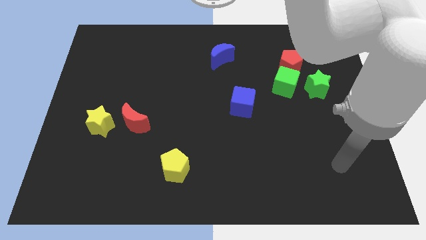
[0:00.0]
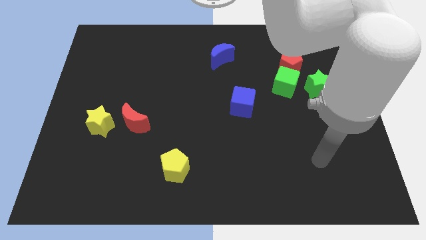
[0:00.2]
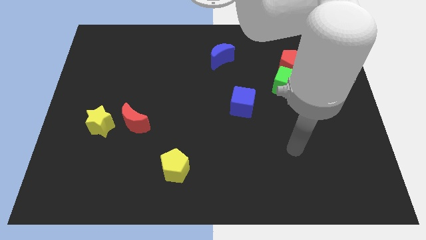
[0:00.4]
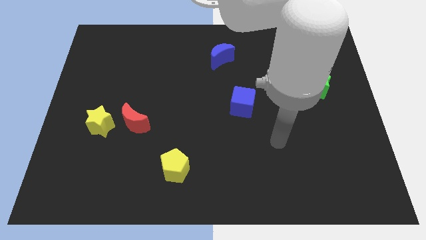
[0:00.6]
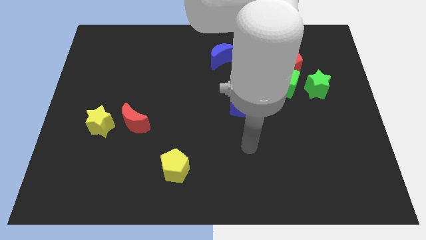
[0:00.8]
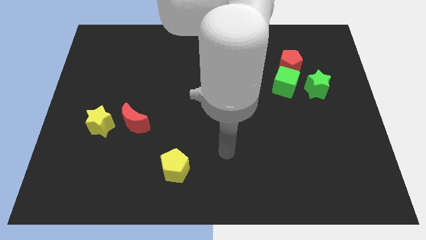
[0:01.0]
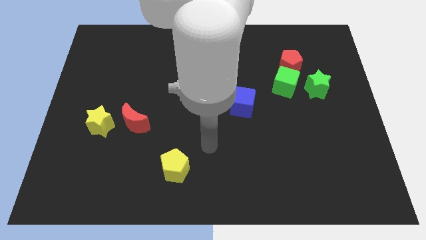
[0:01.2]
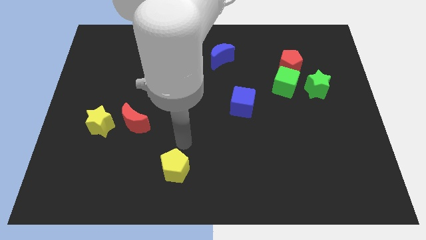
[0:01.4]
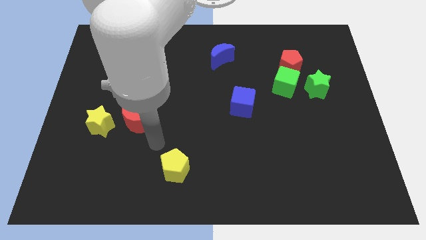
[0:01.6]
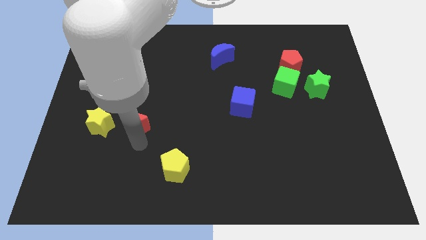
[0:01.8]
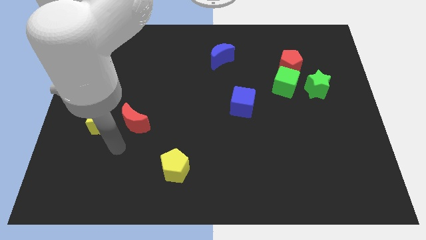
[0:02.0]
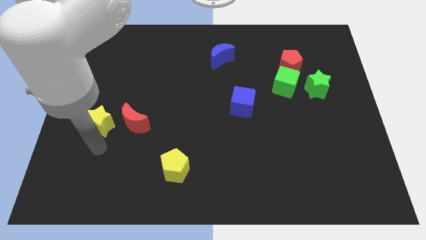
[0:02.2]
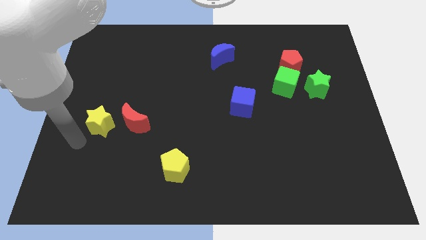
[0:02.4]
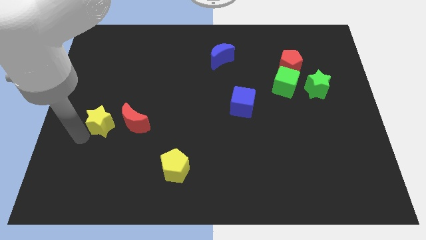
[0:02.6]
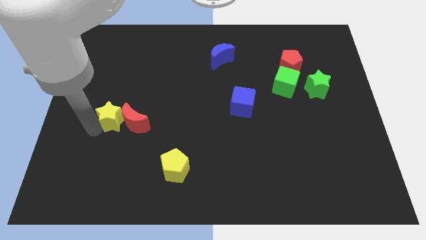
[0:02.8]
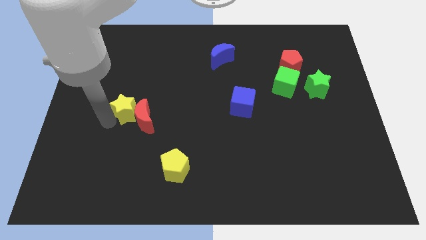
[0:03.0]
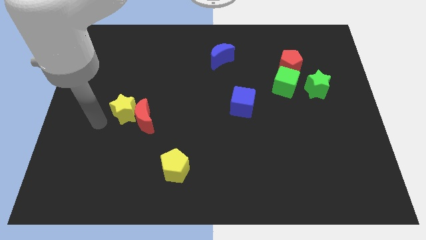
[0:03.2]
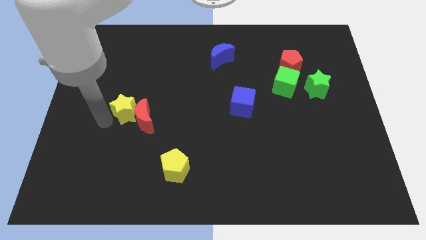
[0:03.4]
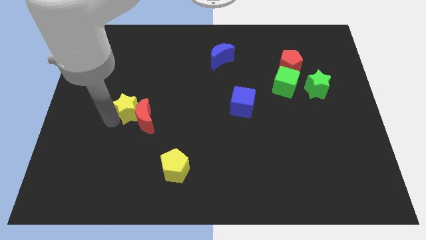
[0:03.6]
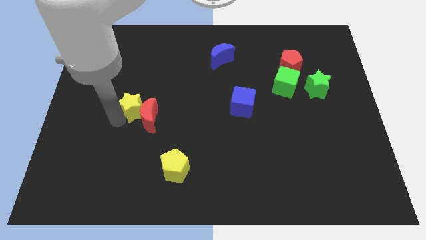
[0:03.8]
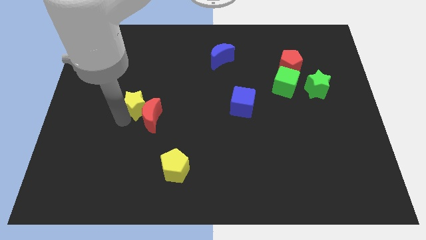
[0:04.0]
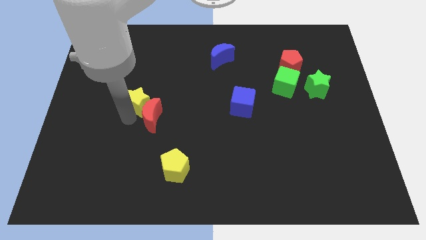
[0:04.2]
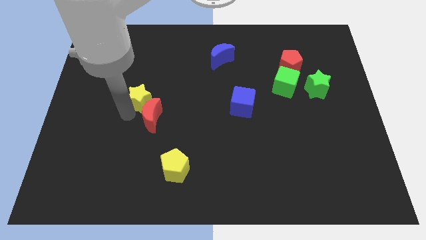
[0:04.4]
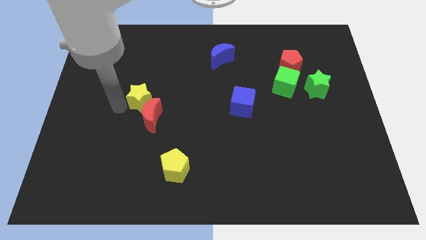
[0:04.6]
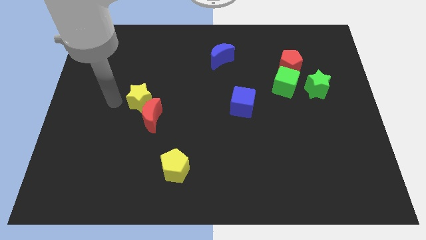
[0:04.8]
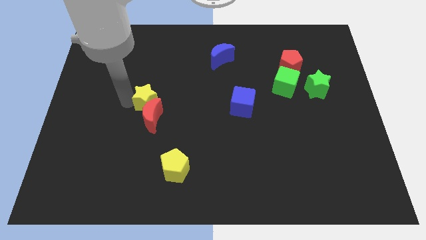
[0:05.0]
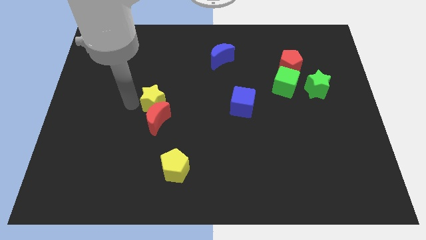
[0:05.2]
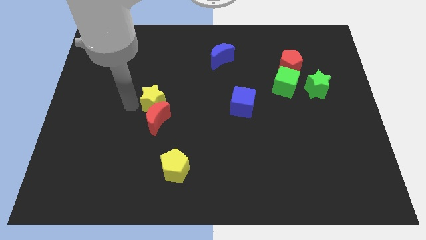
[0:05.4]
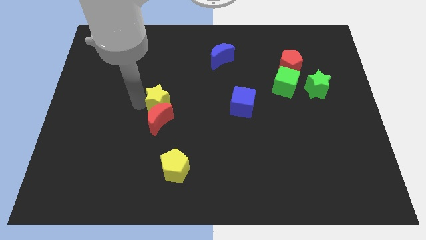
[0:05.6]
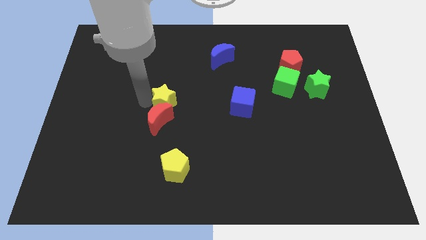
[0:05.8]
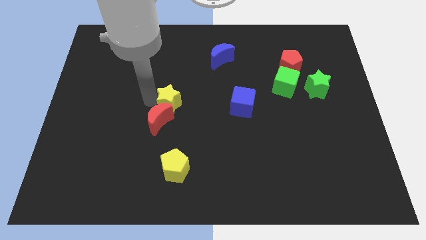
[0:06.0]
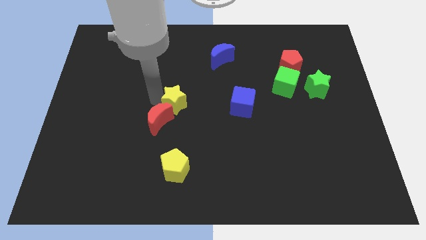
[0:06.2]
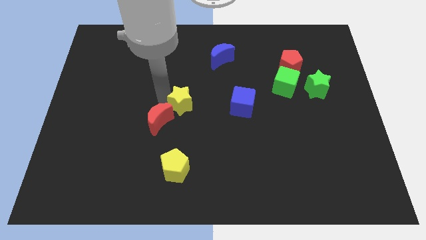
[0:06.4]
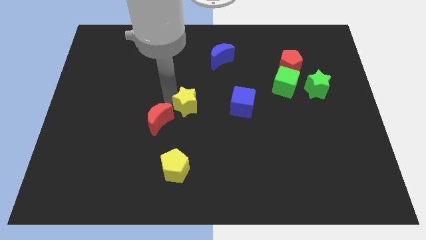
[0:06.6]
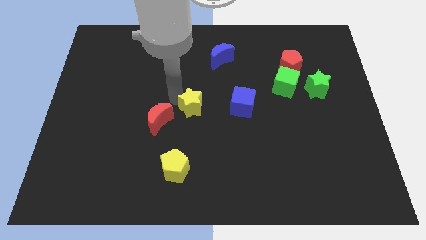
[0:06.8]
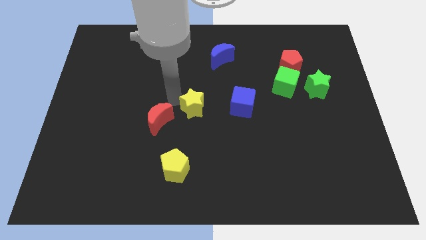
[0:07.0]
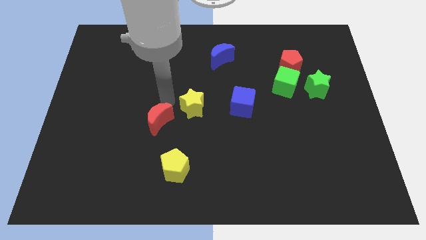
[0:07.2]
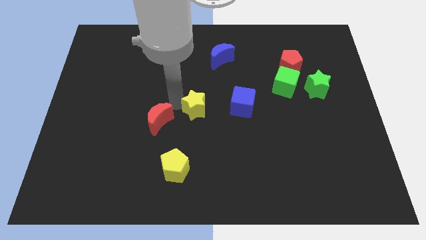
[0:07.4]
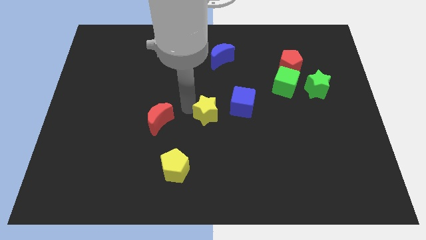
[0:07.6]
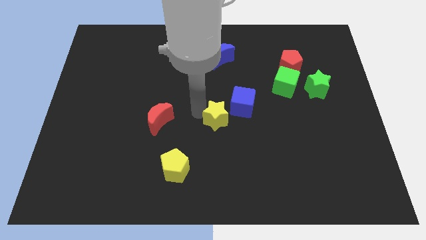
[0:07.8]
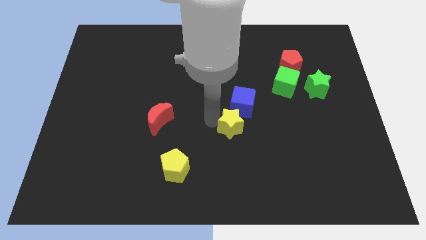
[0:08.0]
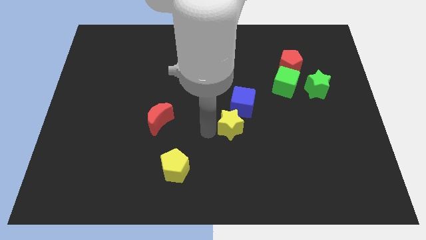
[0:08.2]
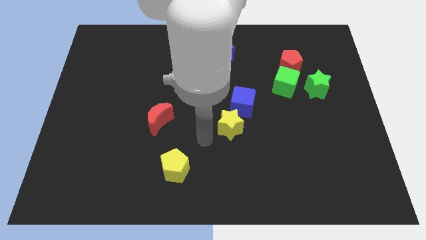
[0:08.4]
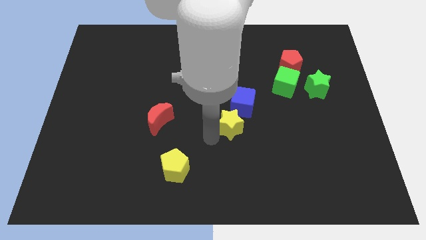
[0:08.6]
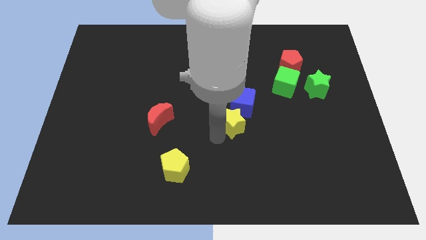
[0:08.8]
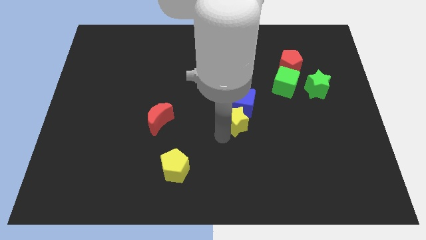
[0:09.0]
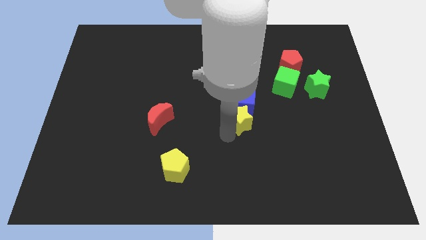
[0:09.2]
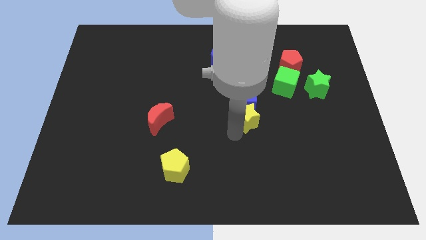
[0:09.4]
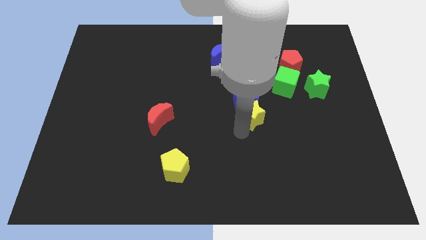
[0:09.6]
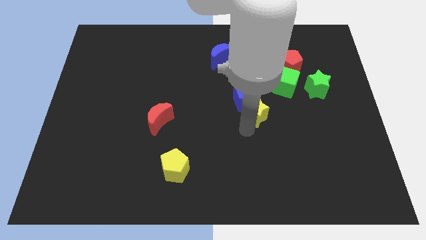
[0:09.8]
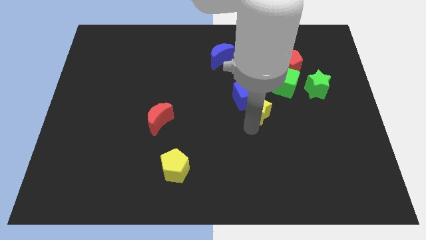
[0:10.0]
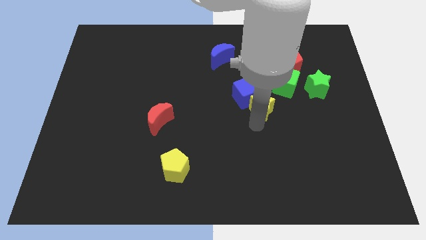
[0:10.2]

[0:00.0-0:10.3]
push the yellow star to the right of the blue cube

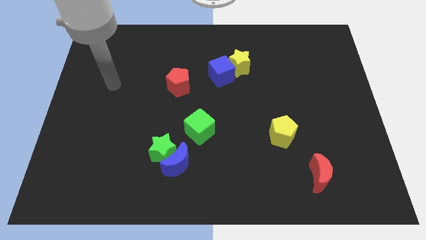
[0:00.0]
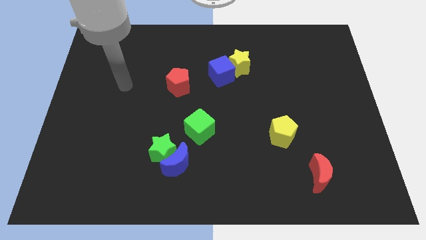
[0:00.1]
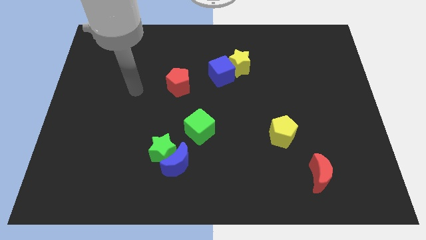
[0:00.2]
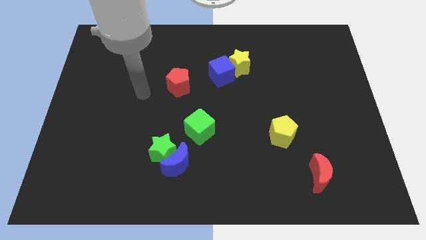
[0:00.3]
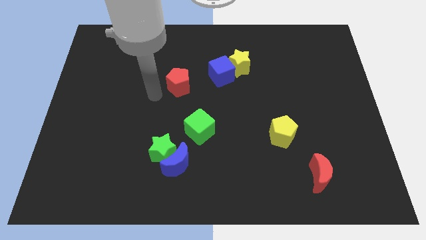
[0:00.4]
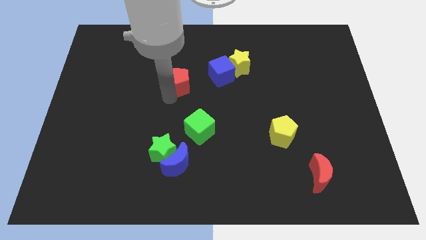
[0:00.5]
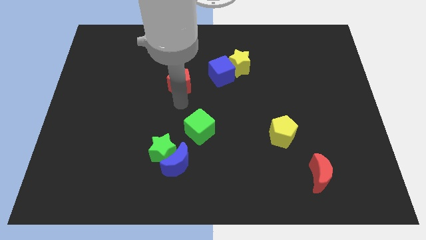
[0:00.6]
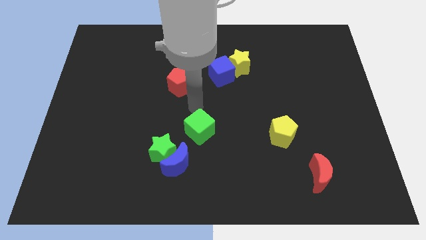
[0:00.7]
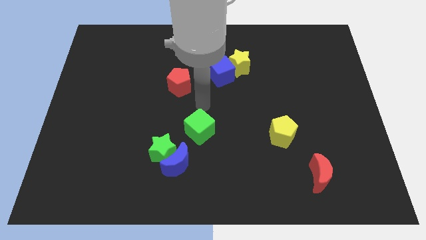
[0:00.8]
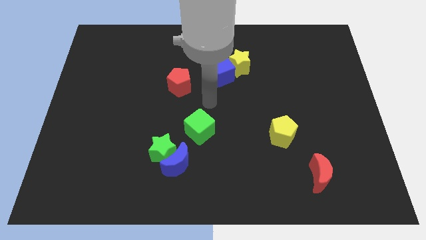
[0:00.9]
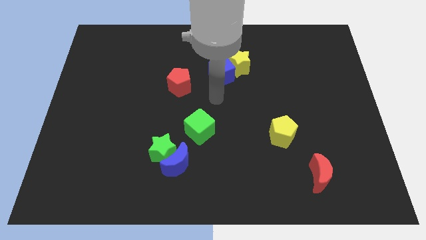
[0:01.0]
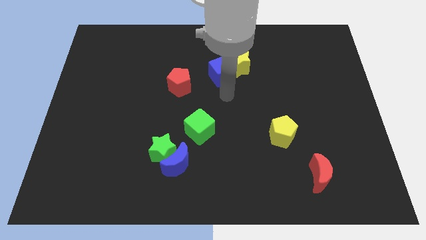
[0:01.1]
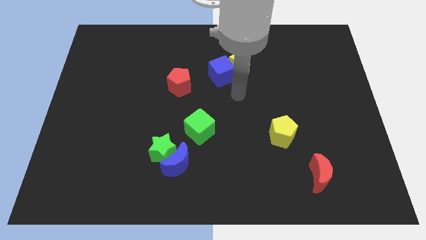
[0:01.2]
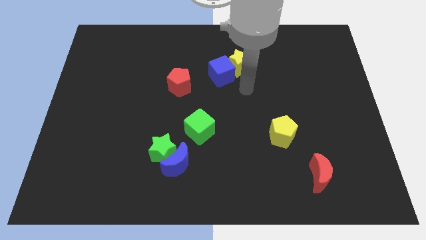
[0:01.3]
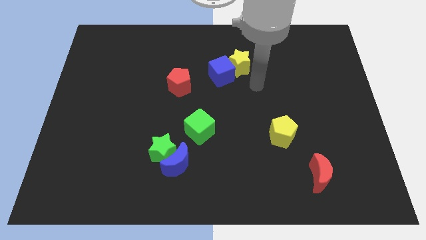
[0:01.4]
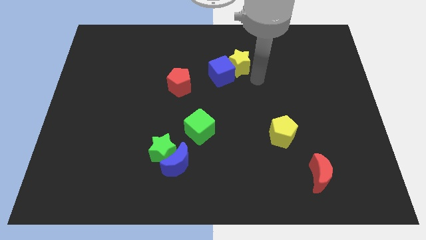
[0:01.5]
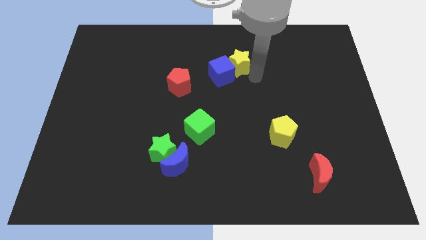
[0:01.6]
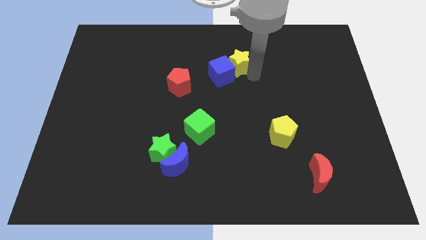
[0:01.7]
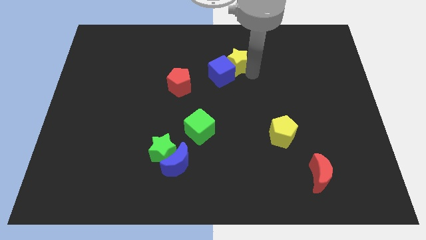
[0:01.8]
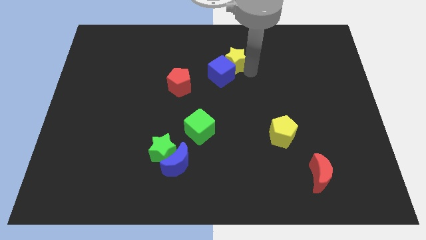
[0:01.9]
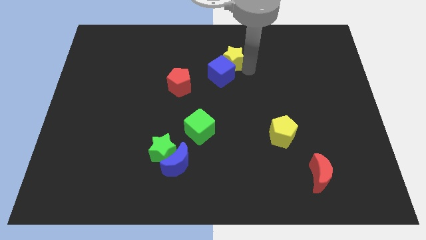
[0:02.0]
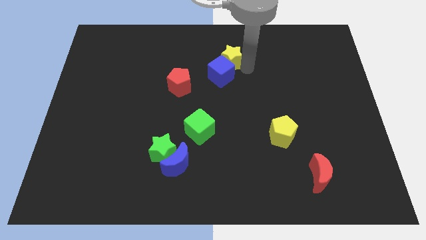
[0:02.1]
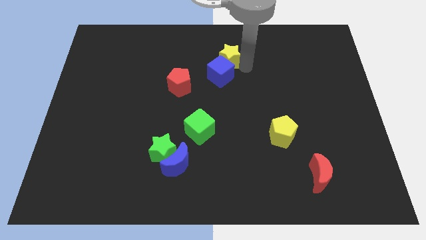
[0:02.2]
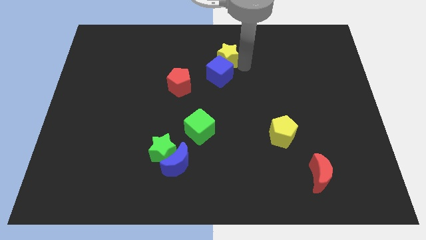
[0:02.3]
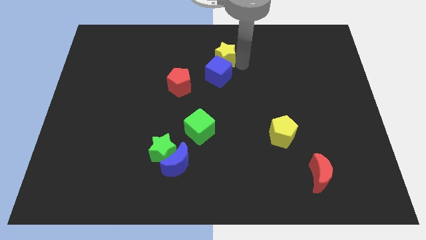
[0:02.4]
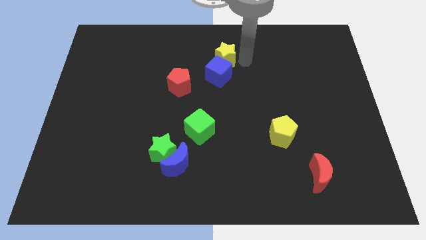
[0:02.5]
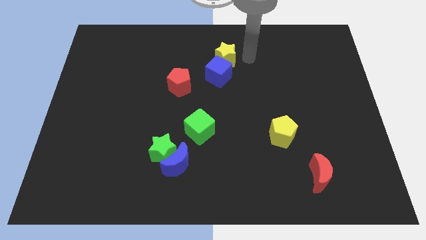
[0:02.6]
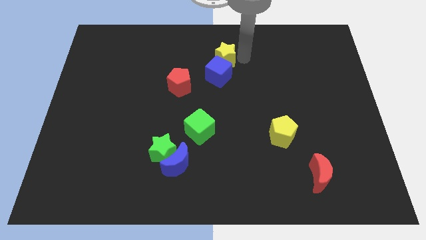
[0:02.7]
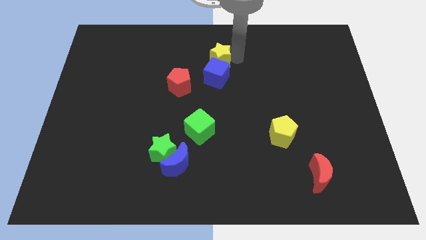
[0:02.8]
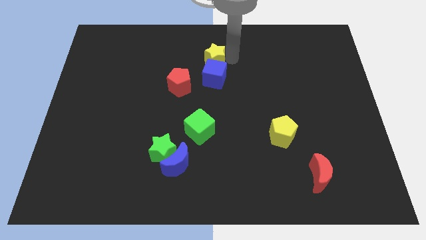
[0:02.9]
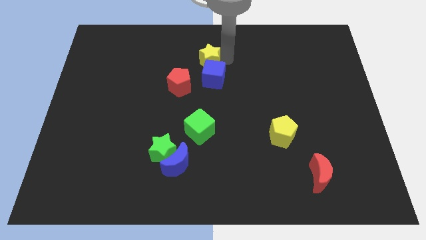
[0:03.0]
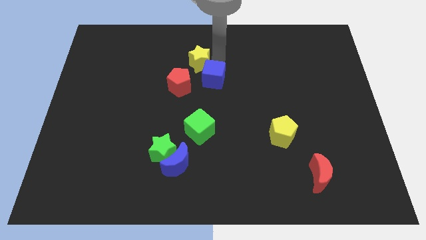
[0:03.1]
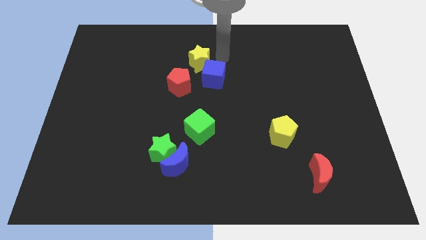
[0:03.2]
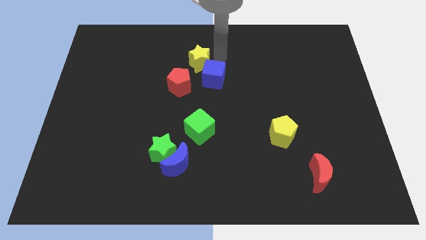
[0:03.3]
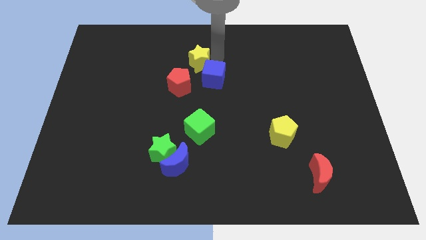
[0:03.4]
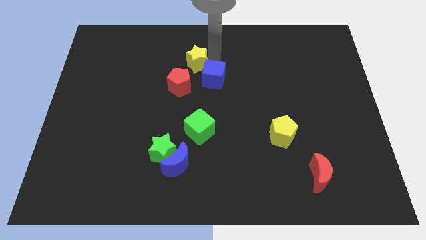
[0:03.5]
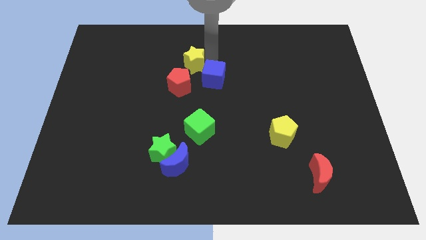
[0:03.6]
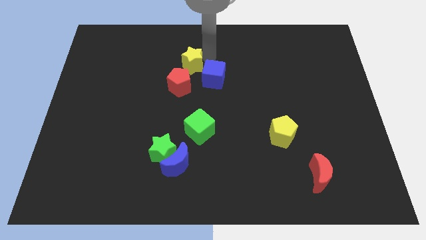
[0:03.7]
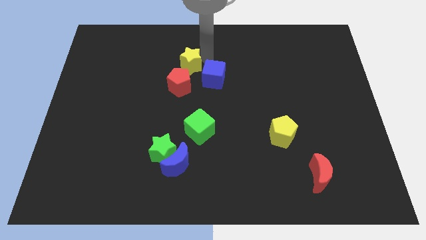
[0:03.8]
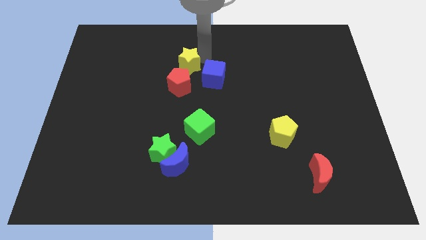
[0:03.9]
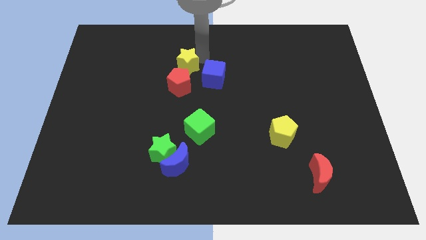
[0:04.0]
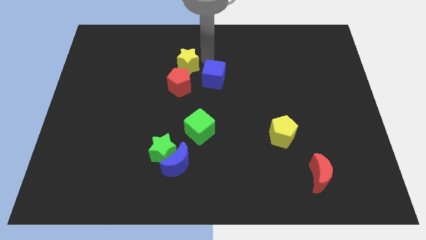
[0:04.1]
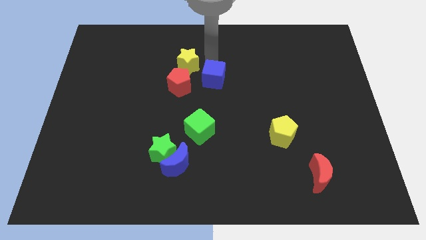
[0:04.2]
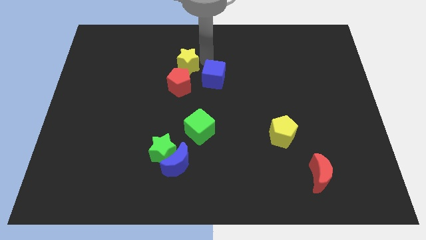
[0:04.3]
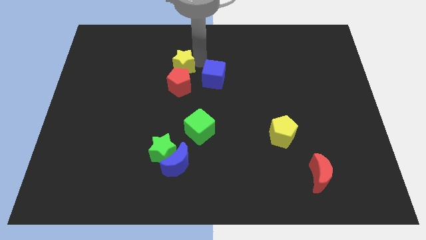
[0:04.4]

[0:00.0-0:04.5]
move the yellow star to the top left of the red pentagon
